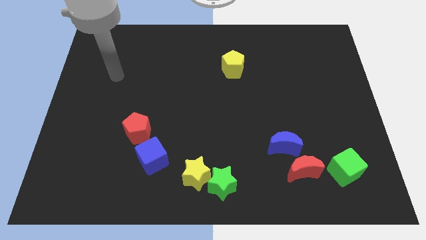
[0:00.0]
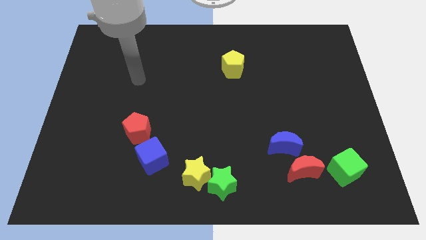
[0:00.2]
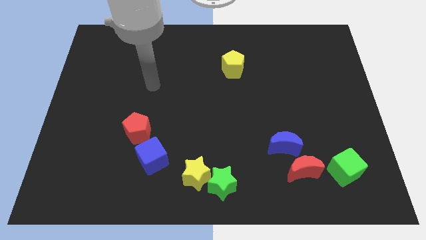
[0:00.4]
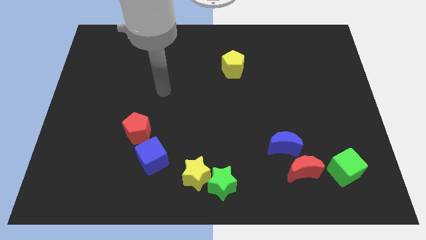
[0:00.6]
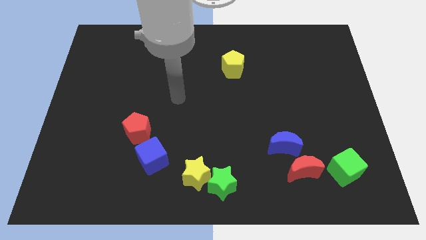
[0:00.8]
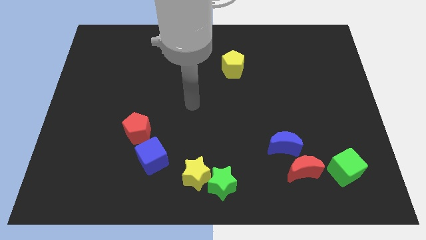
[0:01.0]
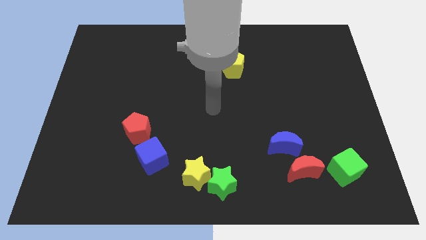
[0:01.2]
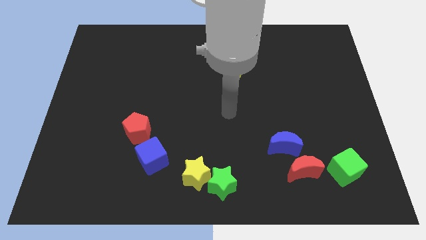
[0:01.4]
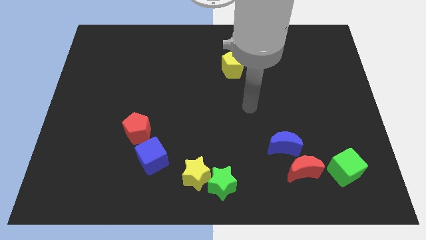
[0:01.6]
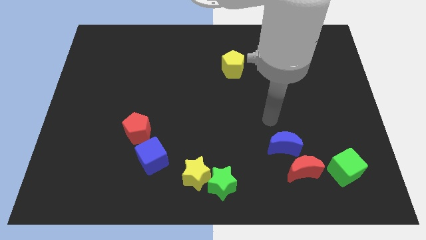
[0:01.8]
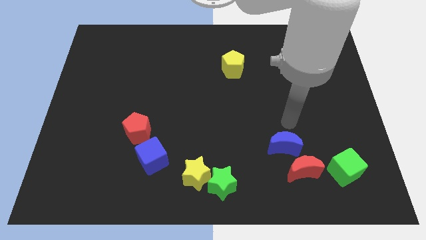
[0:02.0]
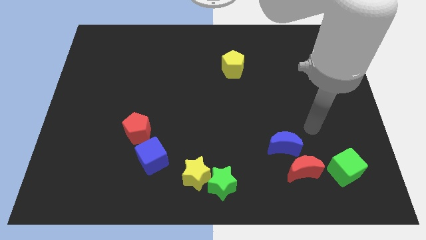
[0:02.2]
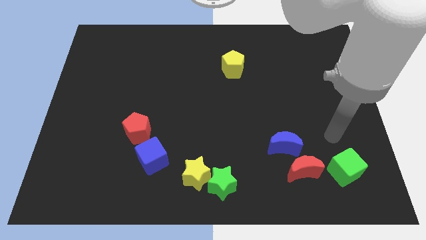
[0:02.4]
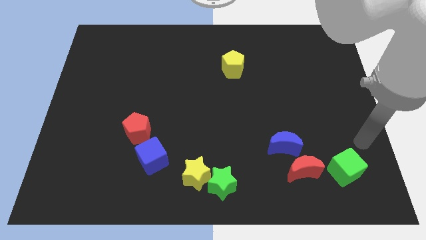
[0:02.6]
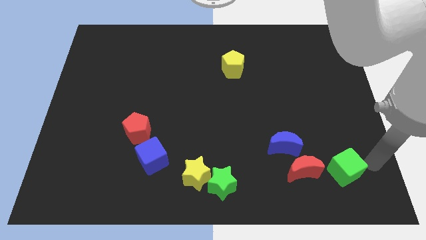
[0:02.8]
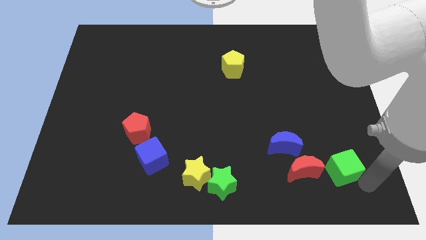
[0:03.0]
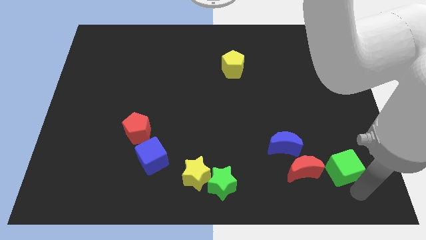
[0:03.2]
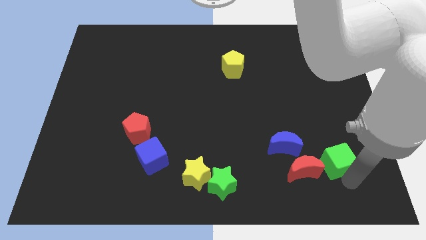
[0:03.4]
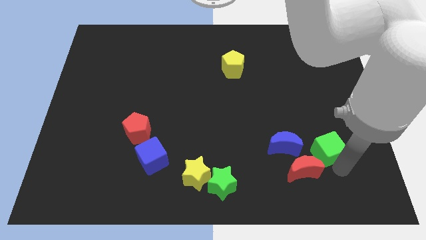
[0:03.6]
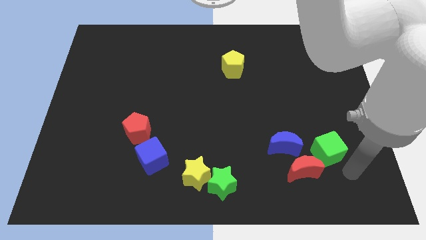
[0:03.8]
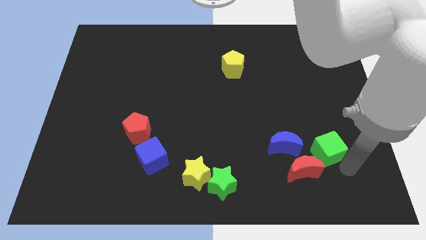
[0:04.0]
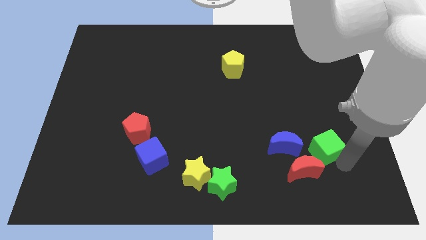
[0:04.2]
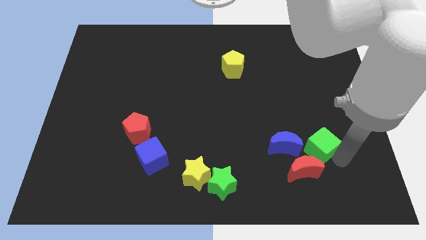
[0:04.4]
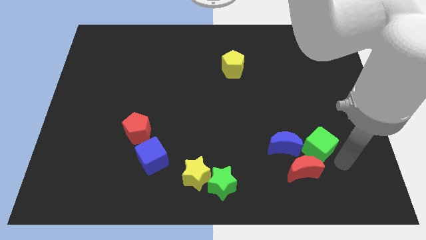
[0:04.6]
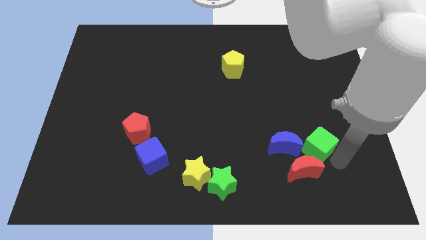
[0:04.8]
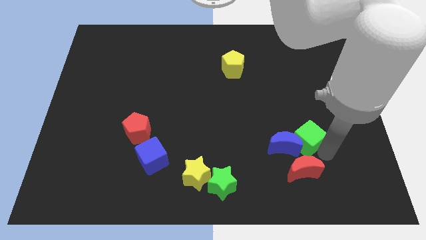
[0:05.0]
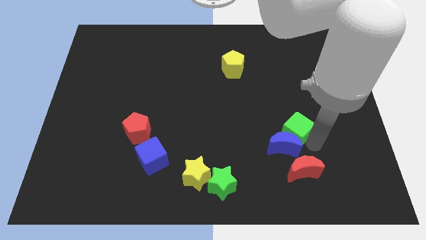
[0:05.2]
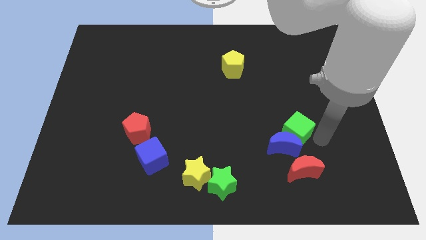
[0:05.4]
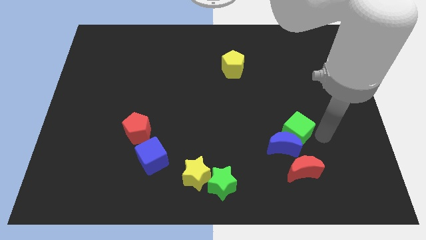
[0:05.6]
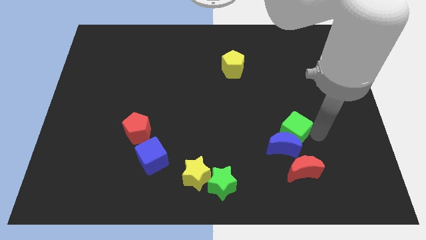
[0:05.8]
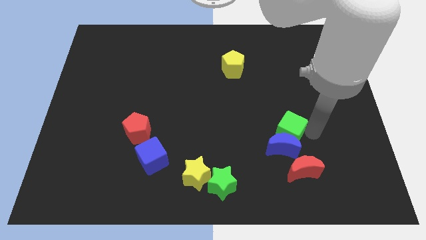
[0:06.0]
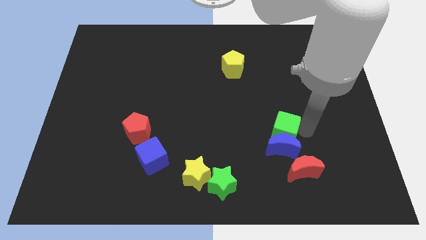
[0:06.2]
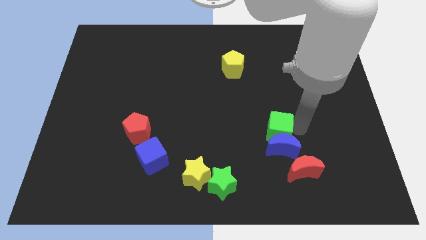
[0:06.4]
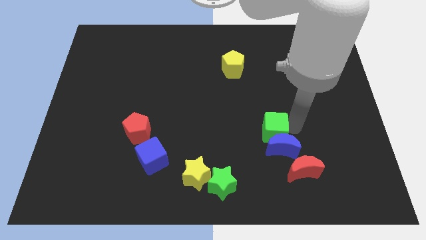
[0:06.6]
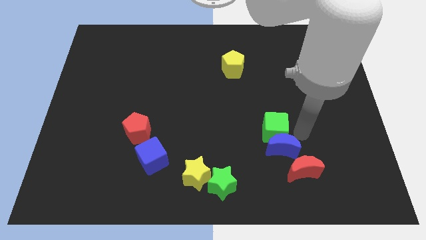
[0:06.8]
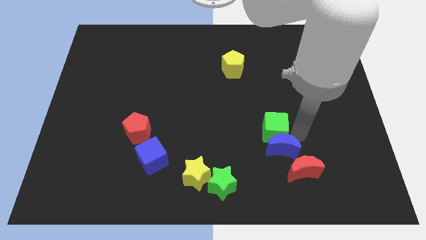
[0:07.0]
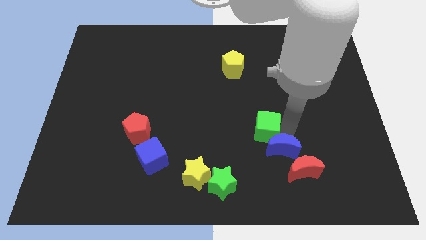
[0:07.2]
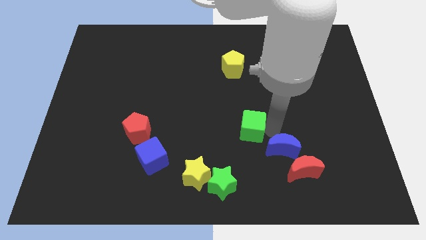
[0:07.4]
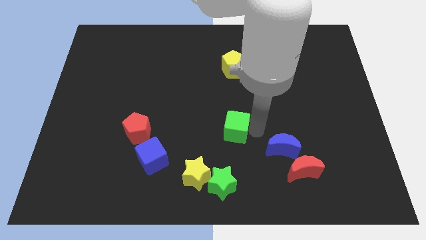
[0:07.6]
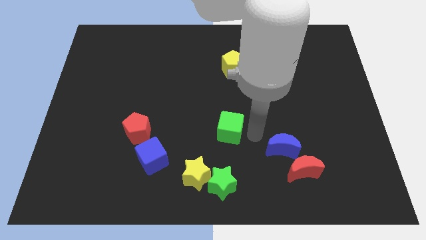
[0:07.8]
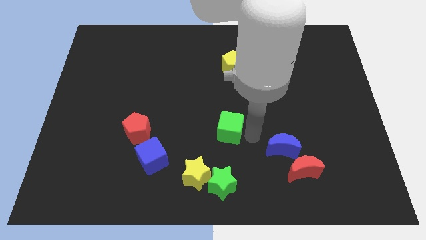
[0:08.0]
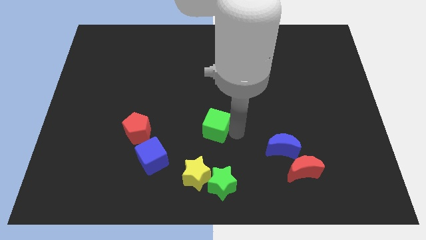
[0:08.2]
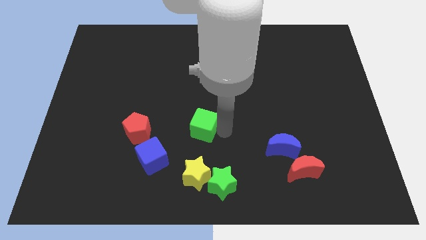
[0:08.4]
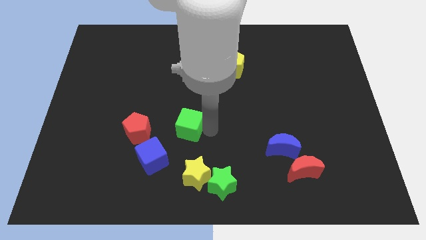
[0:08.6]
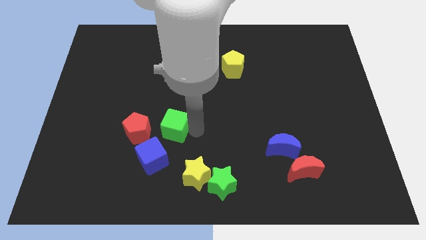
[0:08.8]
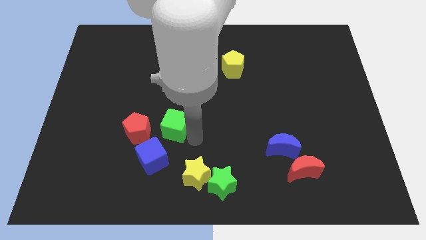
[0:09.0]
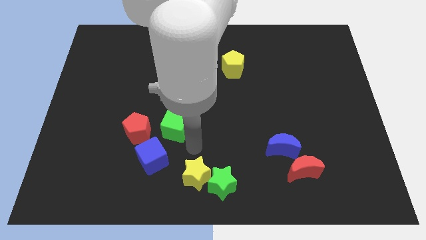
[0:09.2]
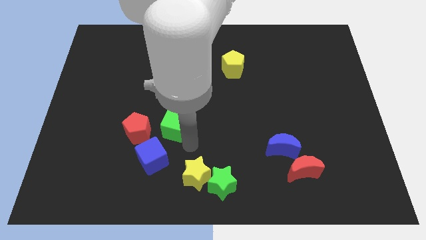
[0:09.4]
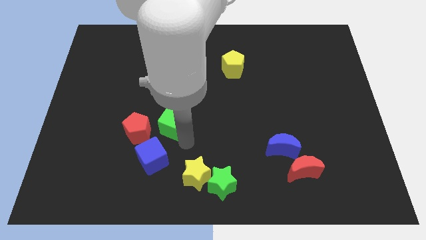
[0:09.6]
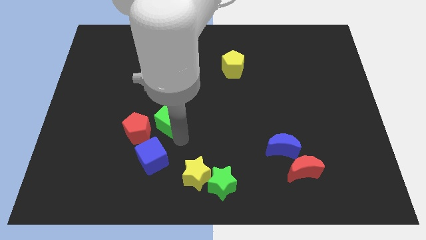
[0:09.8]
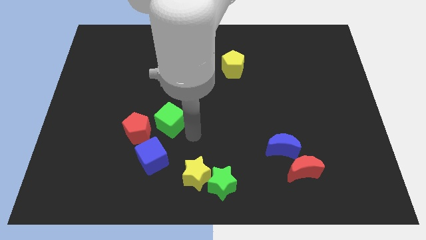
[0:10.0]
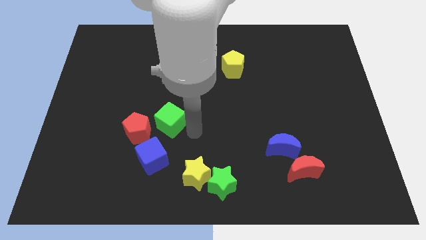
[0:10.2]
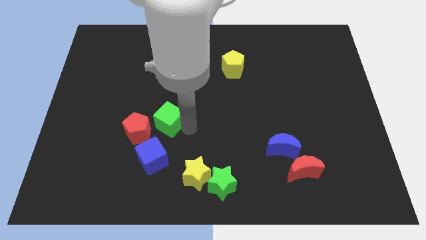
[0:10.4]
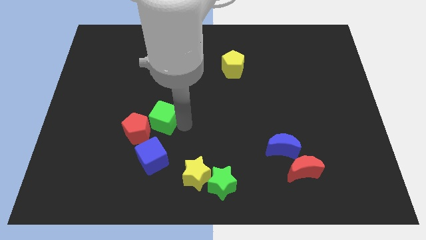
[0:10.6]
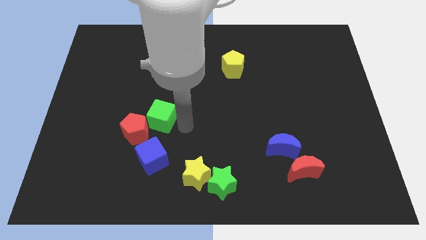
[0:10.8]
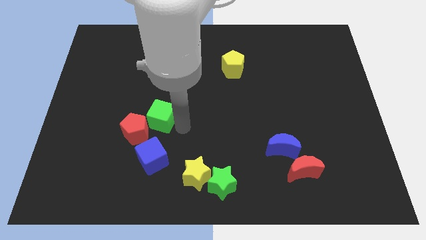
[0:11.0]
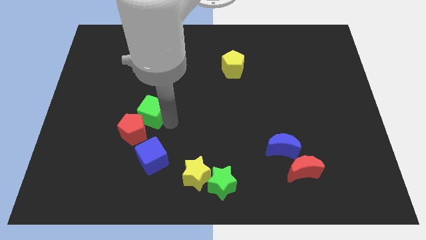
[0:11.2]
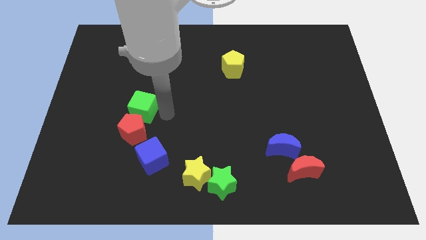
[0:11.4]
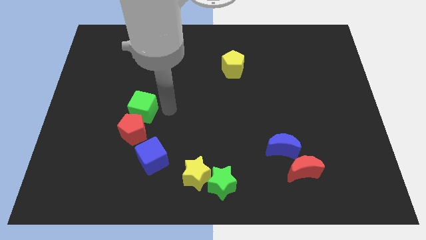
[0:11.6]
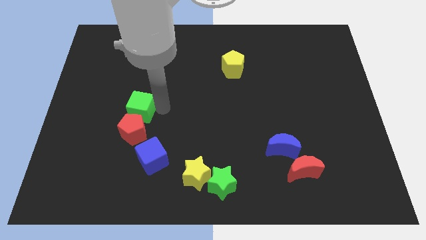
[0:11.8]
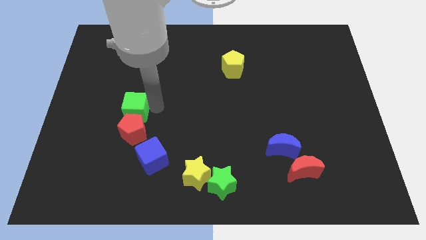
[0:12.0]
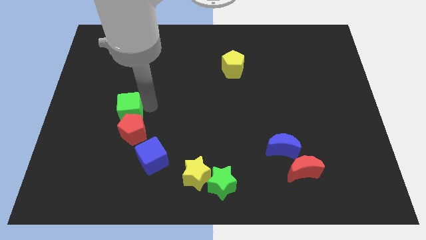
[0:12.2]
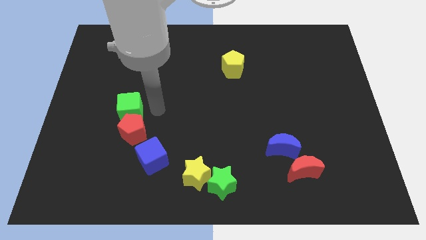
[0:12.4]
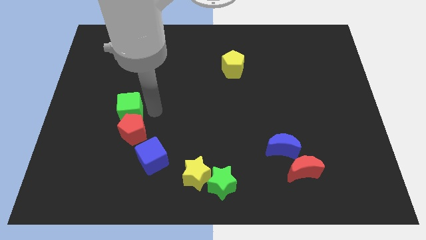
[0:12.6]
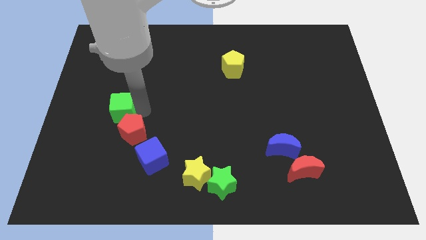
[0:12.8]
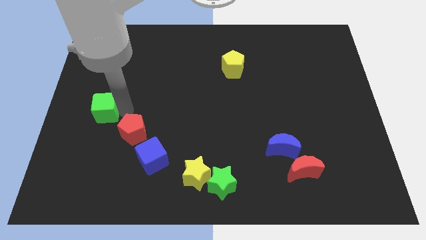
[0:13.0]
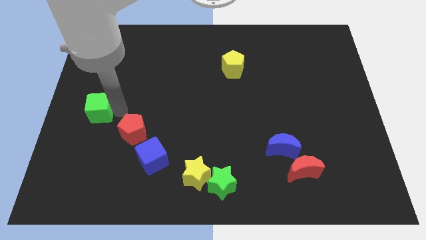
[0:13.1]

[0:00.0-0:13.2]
move the green cube to the left side
